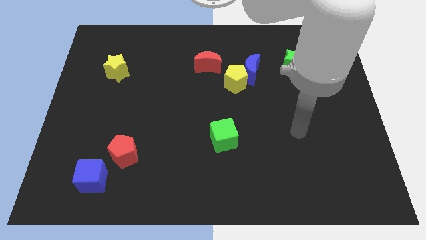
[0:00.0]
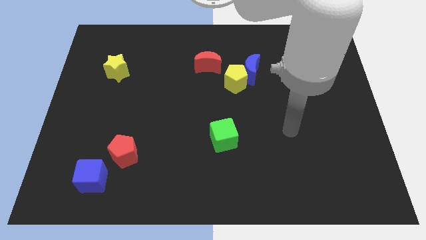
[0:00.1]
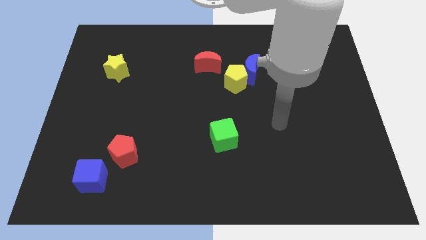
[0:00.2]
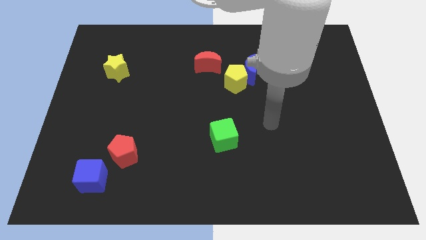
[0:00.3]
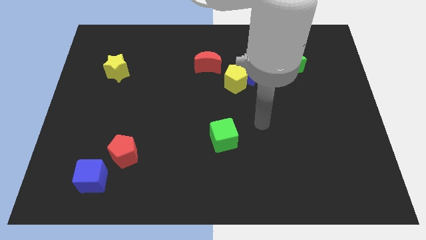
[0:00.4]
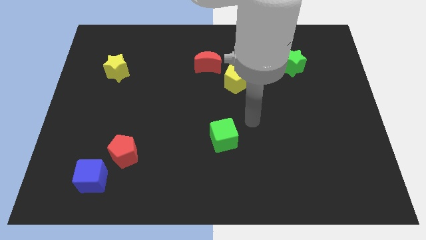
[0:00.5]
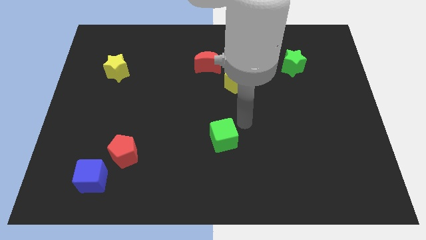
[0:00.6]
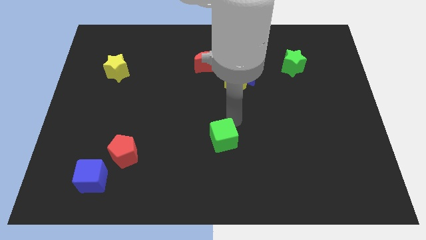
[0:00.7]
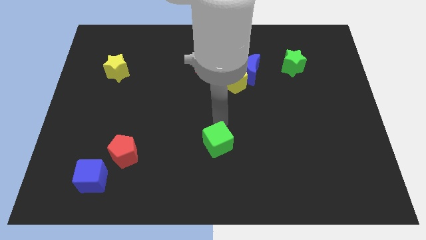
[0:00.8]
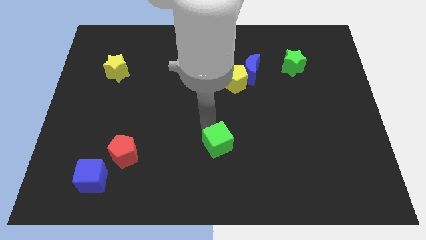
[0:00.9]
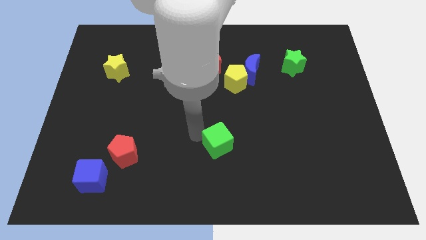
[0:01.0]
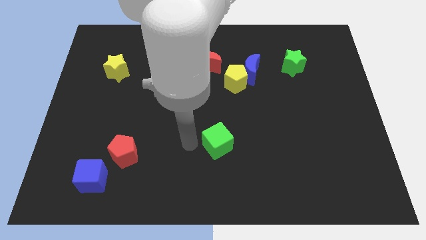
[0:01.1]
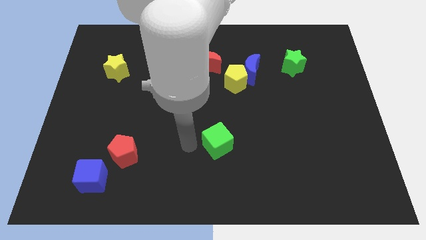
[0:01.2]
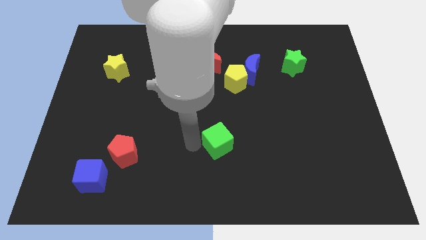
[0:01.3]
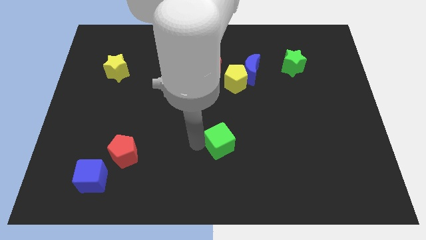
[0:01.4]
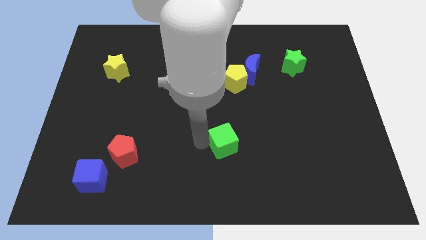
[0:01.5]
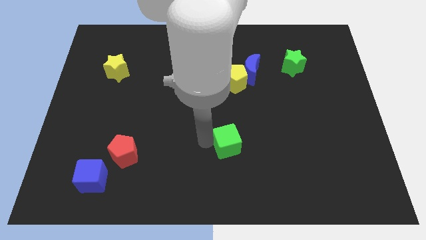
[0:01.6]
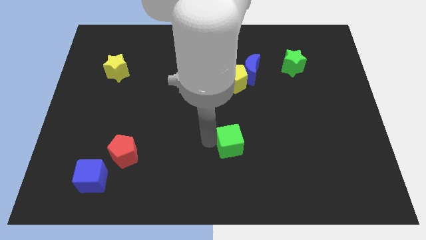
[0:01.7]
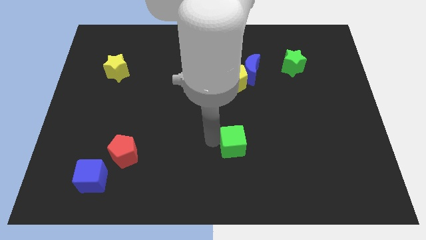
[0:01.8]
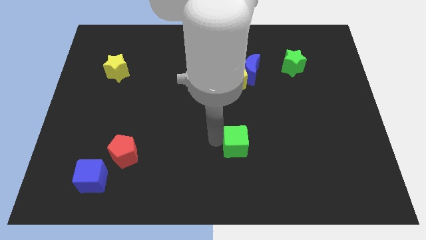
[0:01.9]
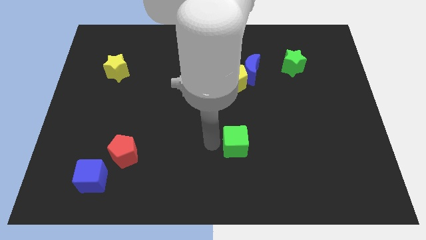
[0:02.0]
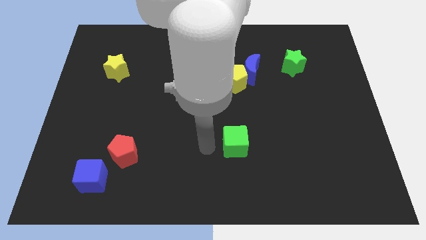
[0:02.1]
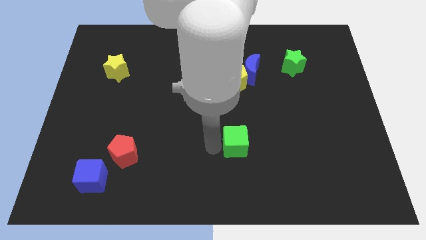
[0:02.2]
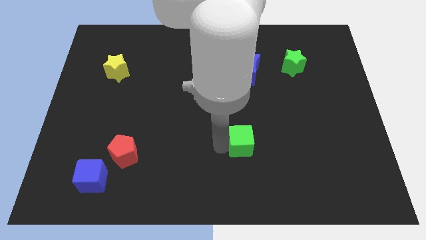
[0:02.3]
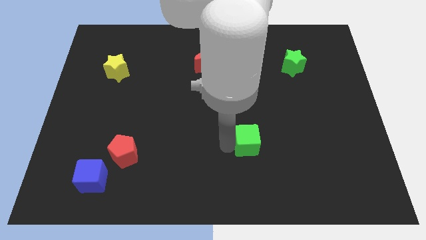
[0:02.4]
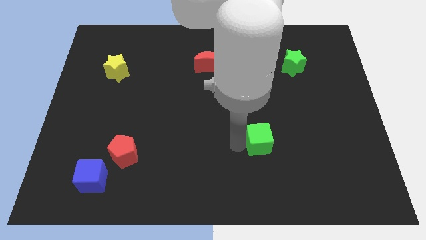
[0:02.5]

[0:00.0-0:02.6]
move the green cube a little bit right

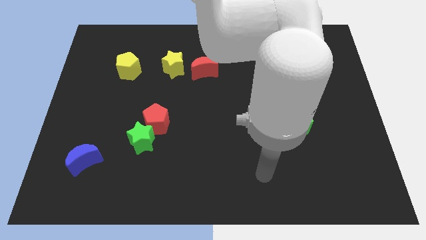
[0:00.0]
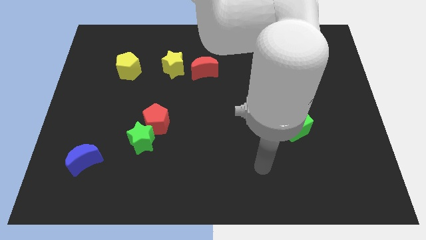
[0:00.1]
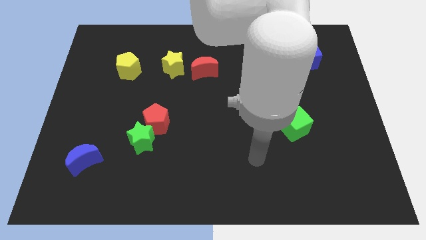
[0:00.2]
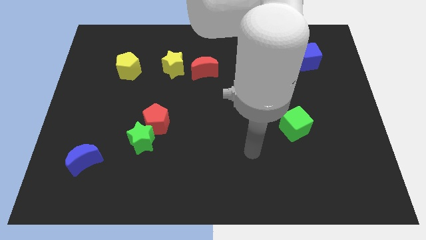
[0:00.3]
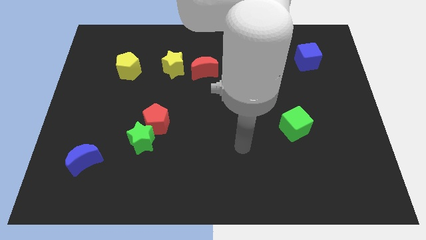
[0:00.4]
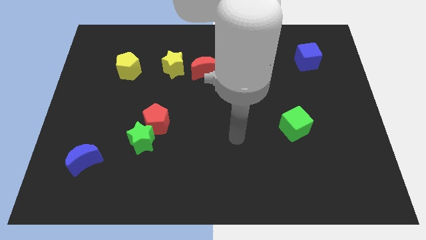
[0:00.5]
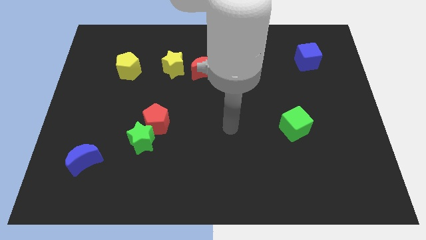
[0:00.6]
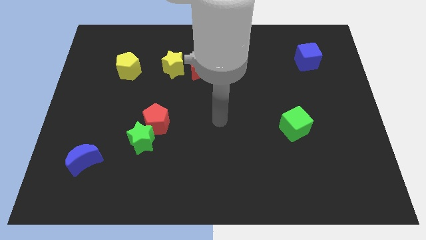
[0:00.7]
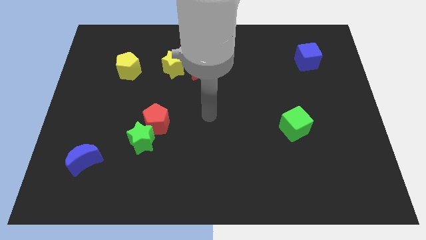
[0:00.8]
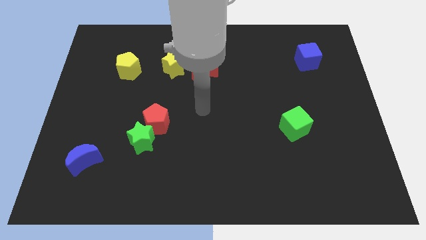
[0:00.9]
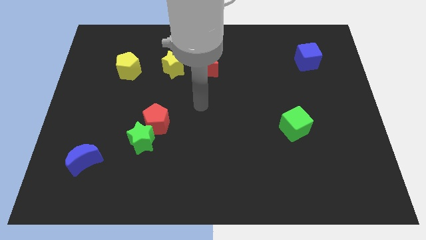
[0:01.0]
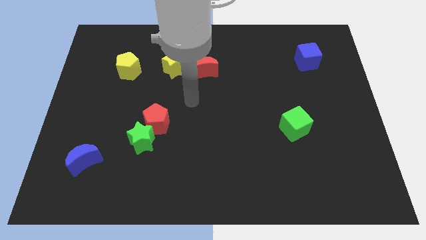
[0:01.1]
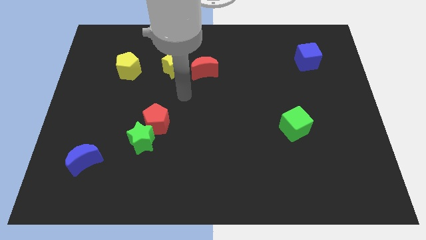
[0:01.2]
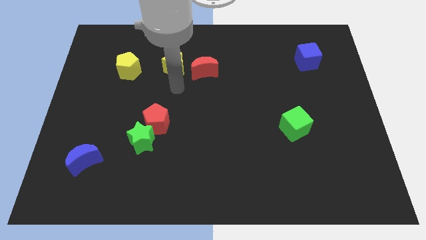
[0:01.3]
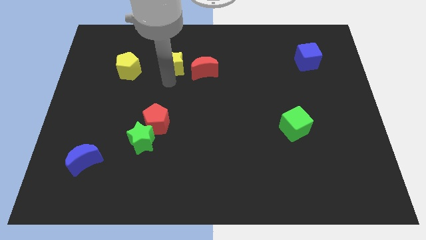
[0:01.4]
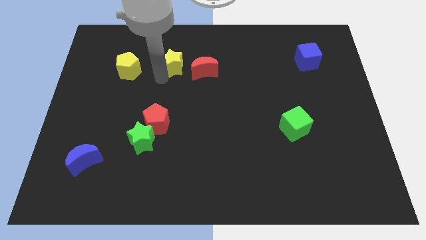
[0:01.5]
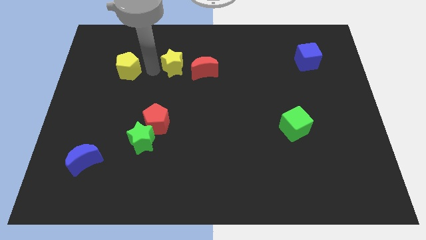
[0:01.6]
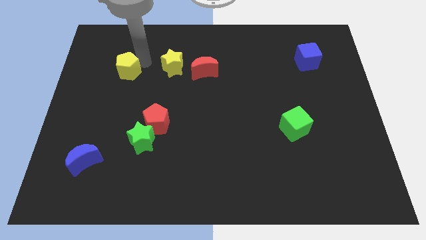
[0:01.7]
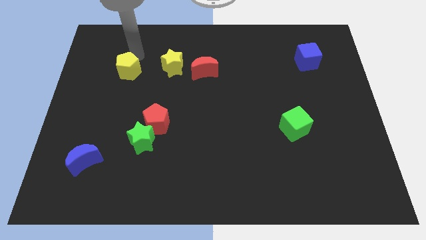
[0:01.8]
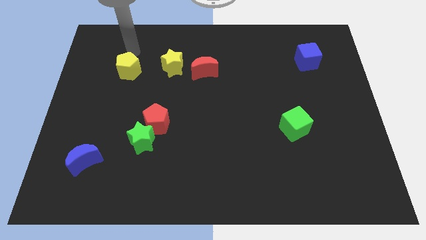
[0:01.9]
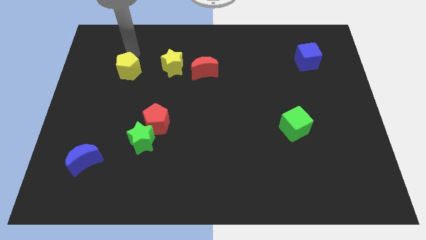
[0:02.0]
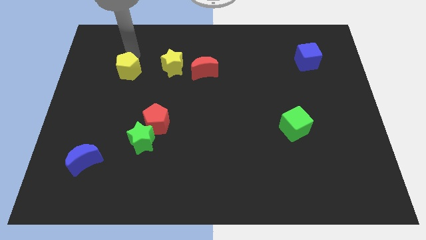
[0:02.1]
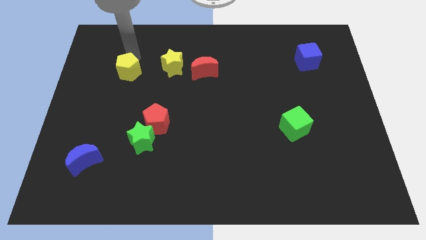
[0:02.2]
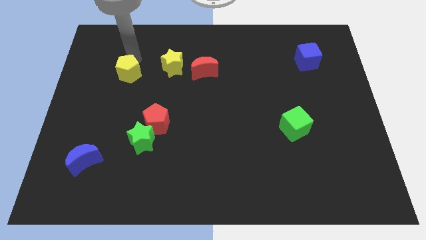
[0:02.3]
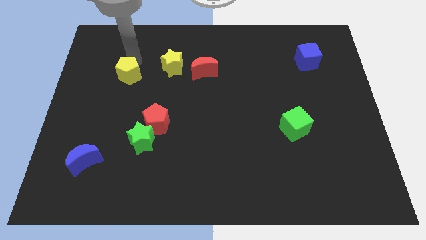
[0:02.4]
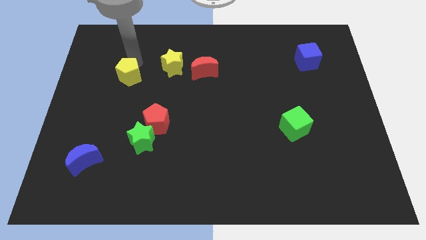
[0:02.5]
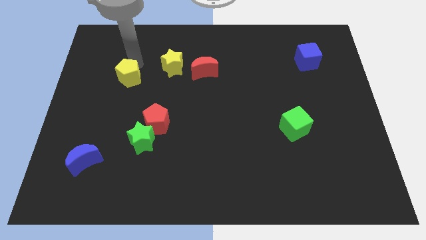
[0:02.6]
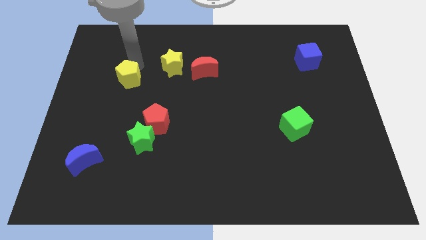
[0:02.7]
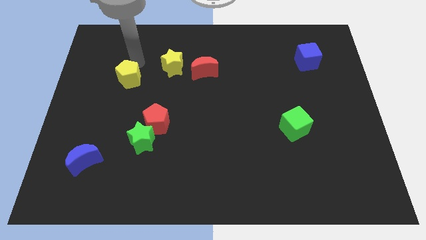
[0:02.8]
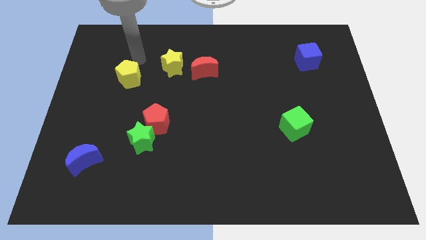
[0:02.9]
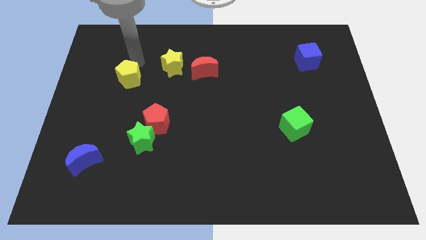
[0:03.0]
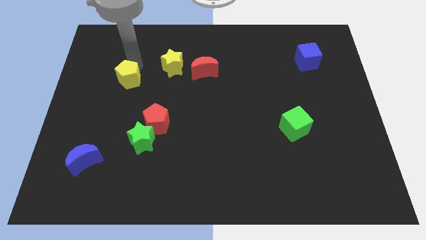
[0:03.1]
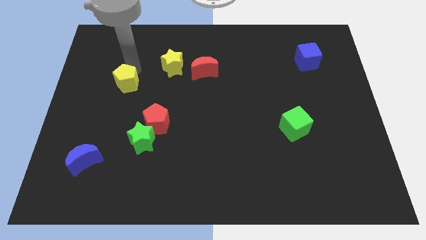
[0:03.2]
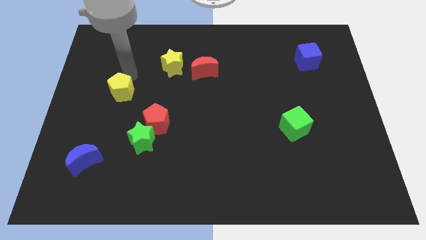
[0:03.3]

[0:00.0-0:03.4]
push the yellow pentagon slightly downwards

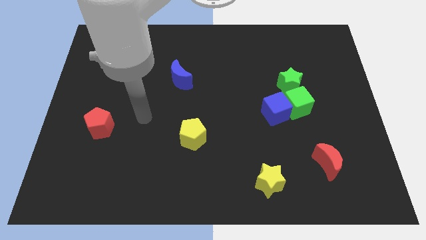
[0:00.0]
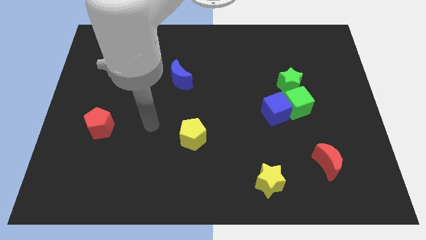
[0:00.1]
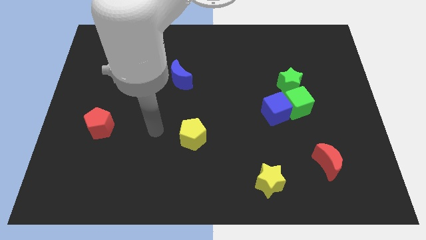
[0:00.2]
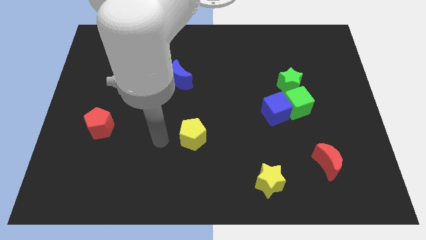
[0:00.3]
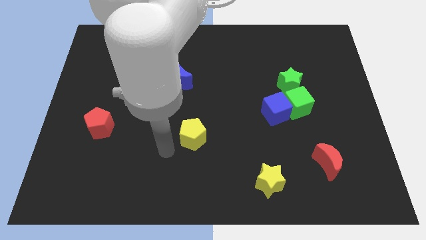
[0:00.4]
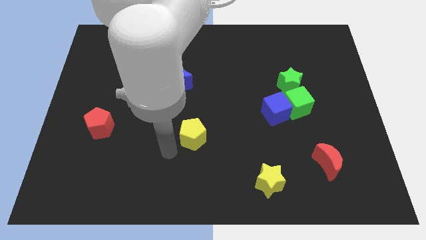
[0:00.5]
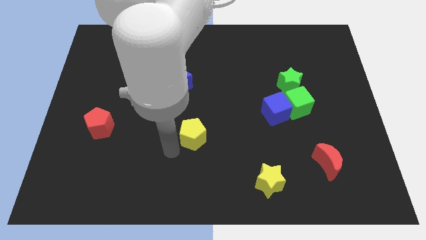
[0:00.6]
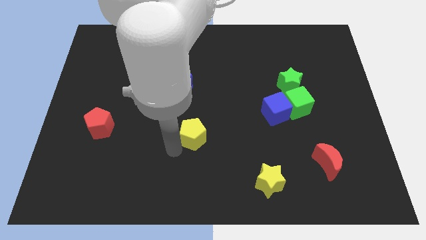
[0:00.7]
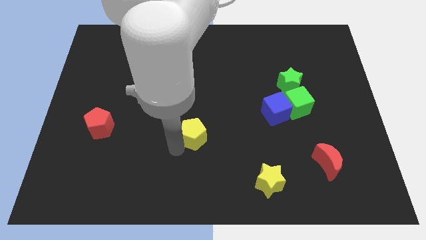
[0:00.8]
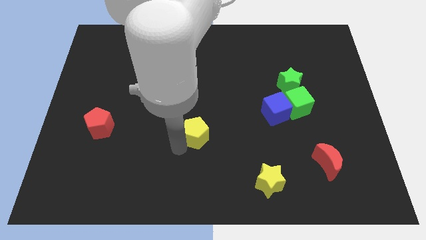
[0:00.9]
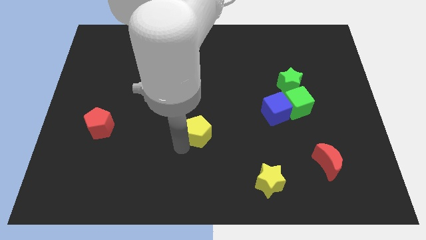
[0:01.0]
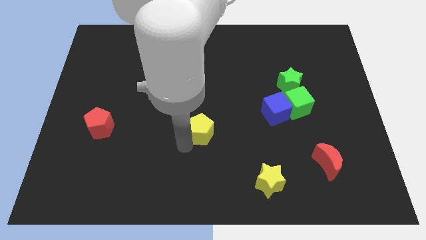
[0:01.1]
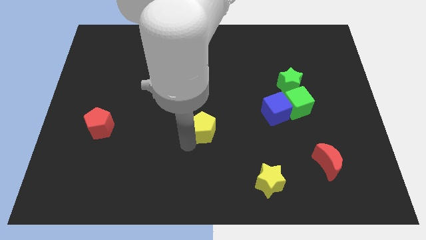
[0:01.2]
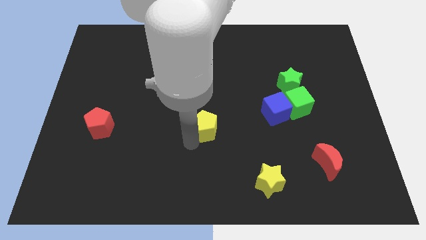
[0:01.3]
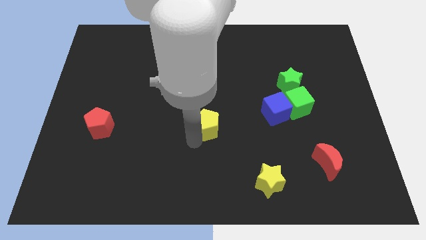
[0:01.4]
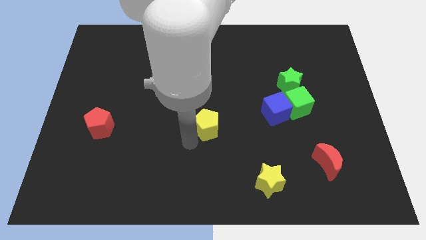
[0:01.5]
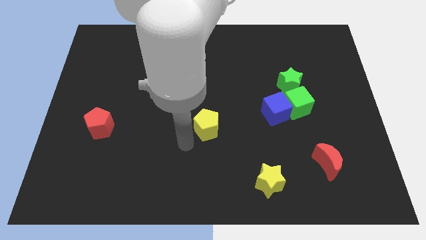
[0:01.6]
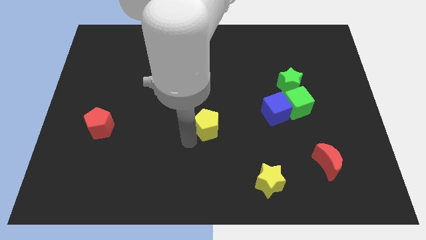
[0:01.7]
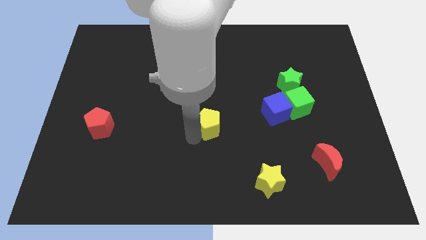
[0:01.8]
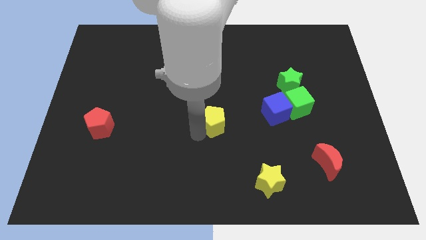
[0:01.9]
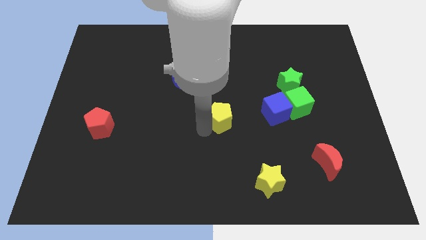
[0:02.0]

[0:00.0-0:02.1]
slide the yellow pentagon diagonally up and to the right slightly

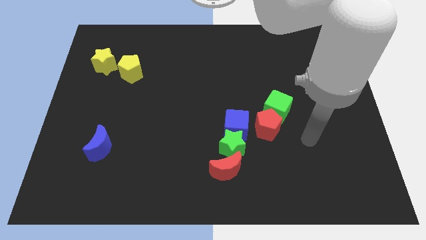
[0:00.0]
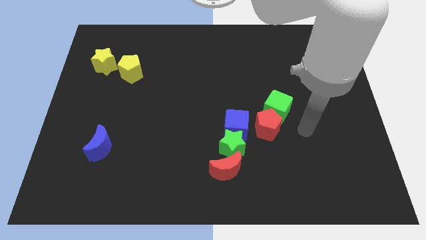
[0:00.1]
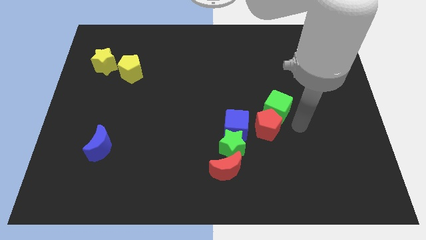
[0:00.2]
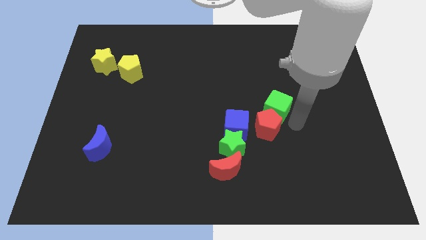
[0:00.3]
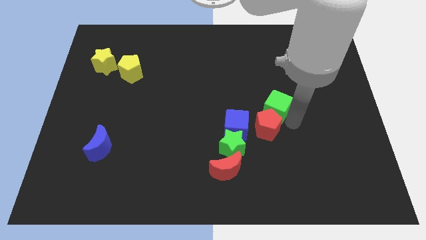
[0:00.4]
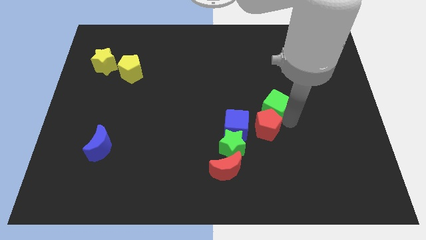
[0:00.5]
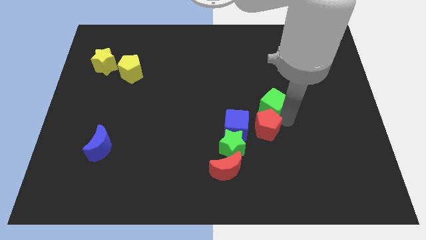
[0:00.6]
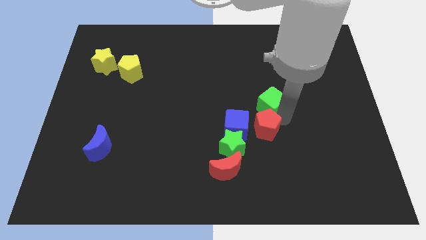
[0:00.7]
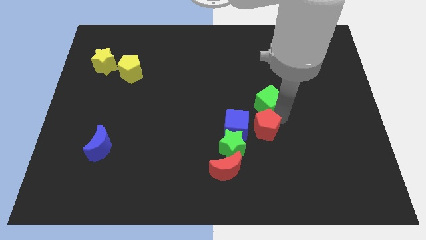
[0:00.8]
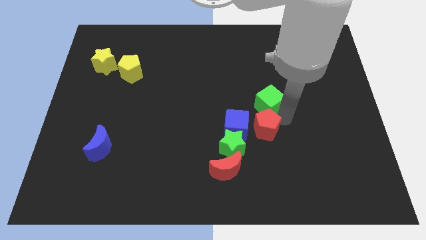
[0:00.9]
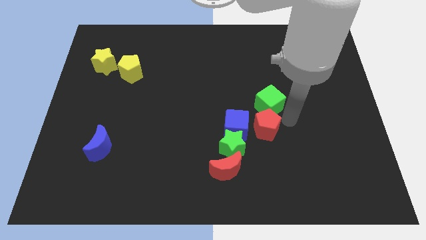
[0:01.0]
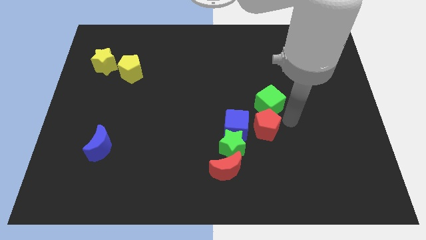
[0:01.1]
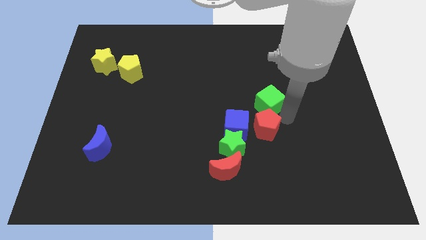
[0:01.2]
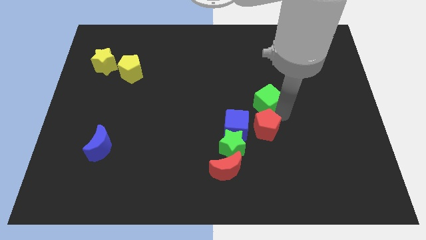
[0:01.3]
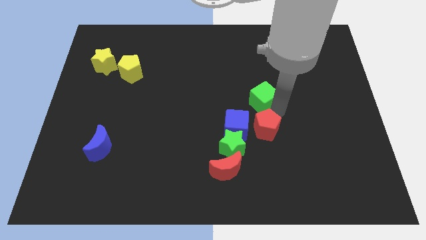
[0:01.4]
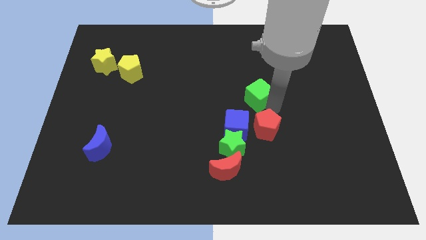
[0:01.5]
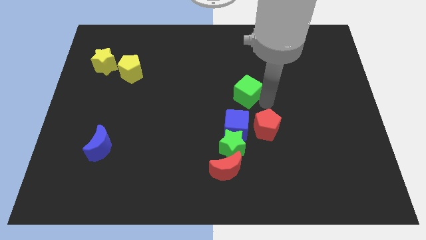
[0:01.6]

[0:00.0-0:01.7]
move the green cube a little up and then left
